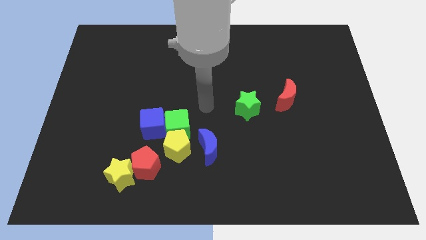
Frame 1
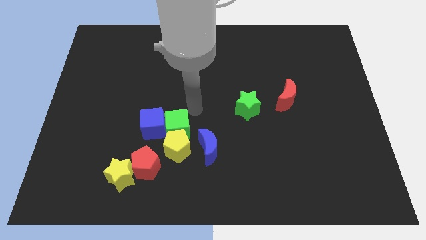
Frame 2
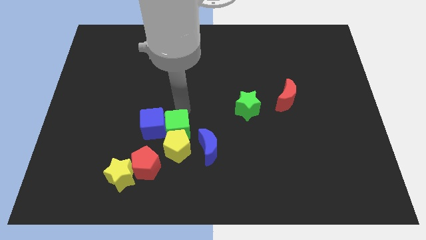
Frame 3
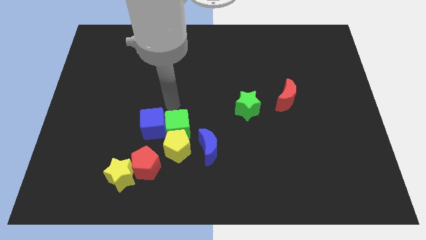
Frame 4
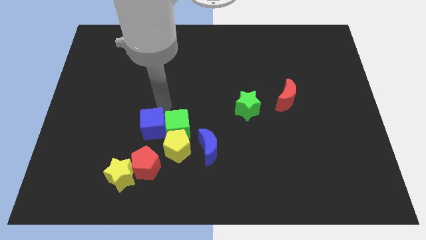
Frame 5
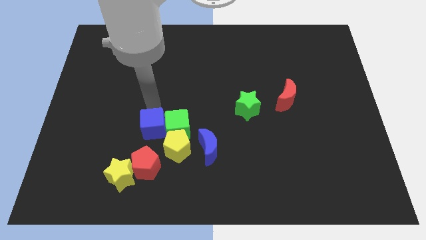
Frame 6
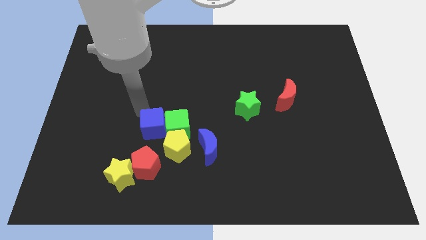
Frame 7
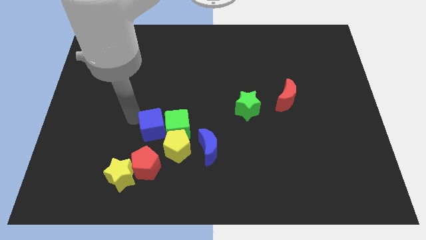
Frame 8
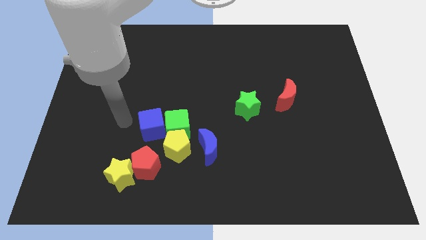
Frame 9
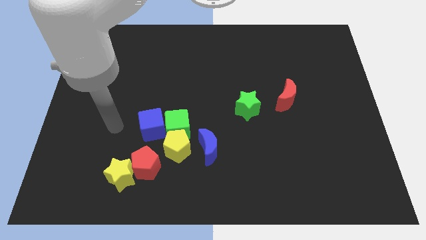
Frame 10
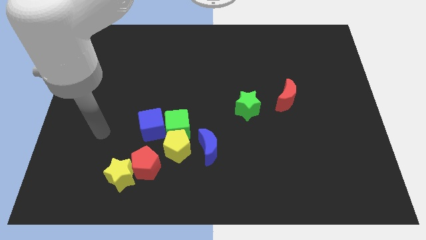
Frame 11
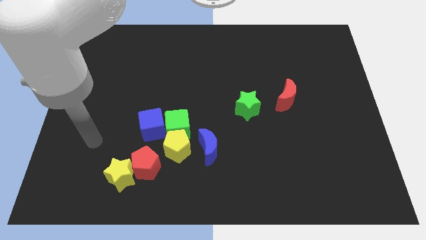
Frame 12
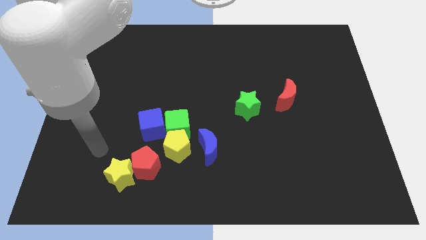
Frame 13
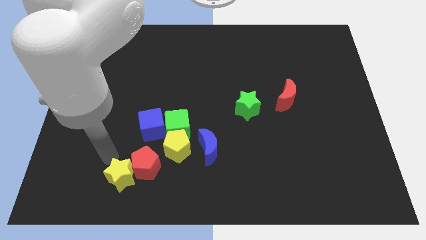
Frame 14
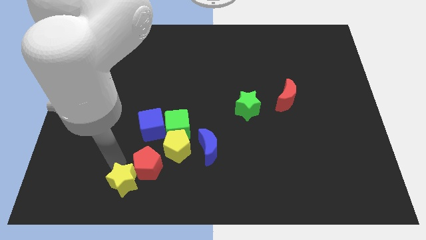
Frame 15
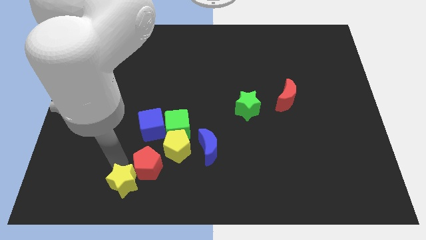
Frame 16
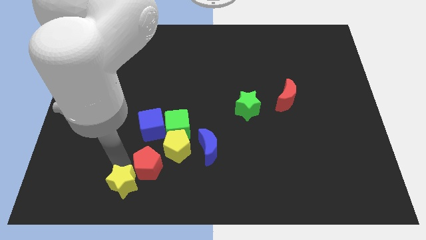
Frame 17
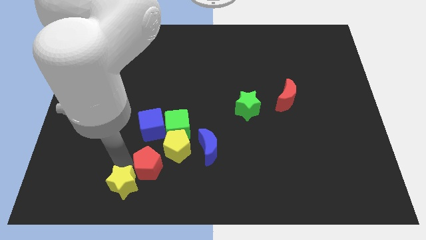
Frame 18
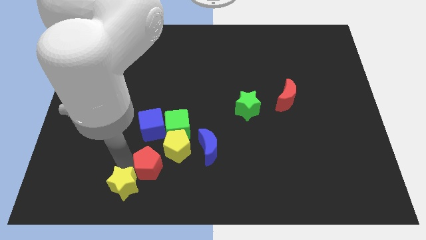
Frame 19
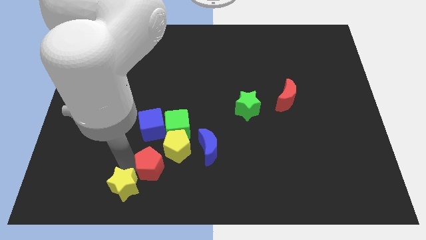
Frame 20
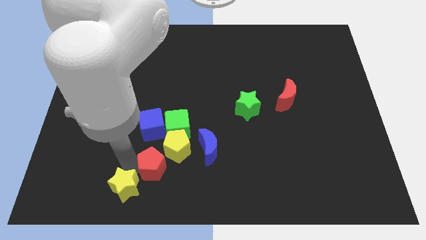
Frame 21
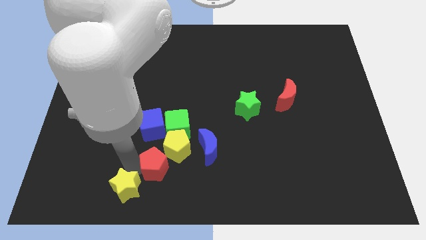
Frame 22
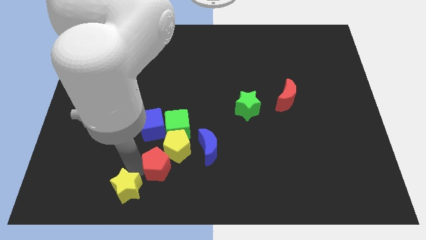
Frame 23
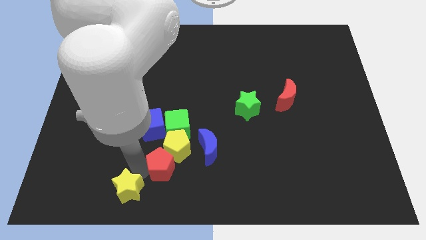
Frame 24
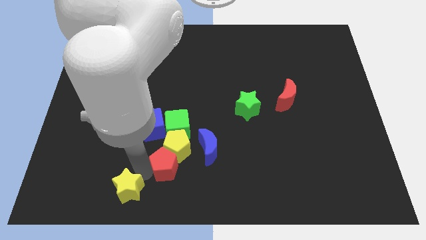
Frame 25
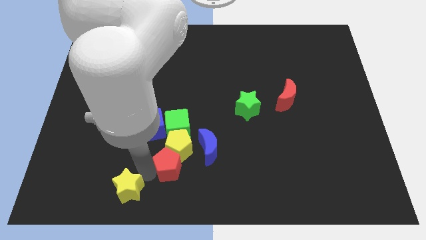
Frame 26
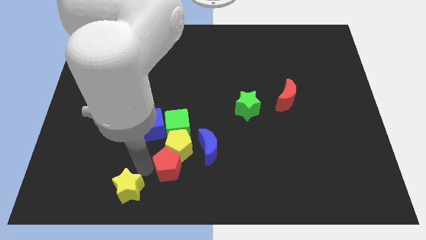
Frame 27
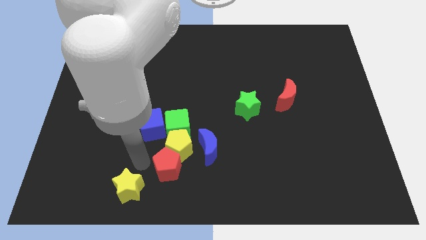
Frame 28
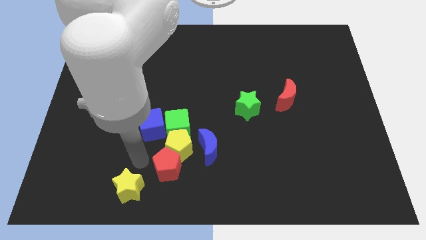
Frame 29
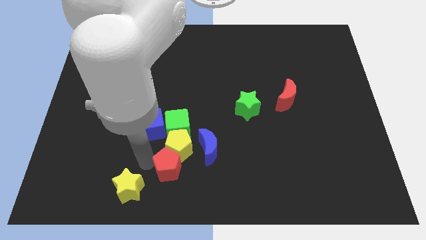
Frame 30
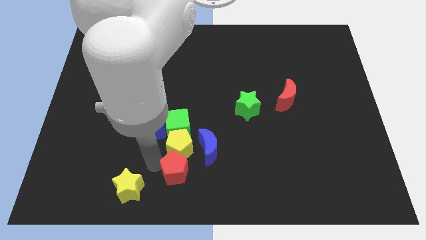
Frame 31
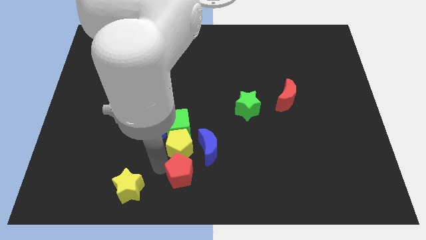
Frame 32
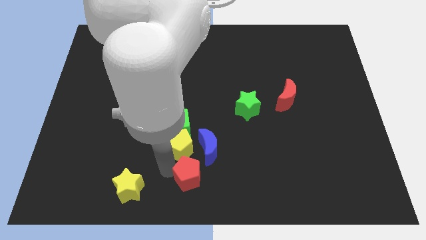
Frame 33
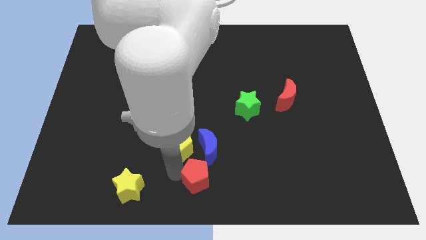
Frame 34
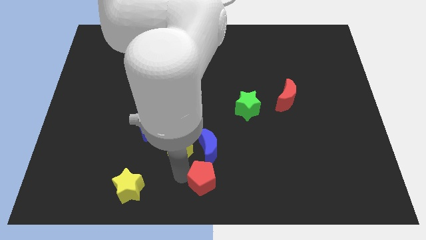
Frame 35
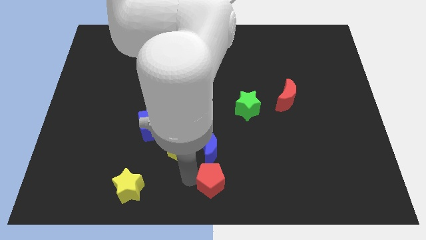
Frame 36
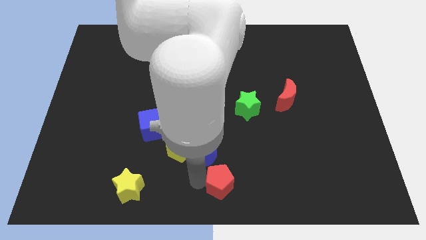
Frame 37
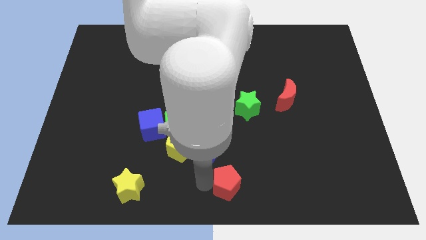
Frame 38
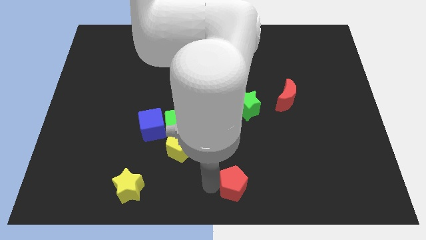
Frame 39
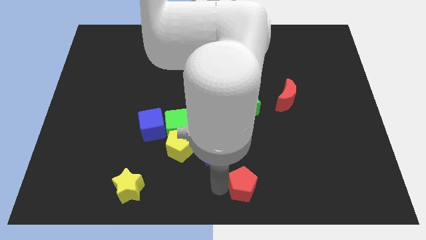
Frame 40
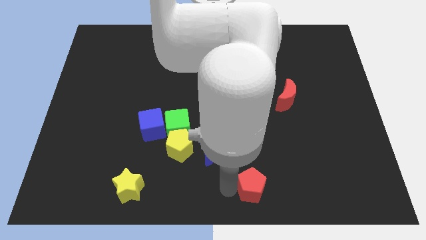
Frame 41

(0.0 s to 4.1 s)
slide the red pentagon to the right

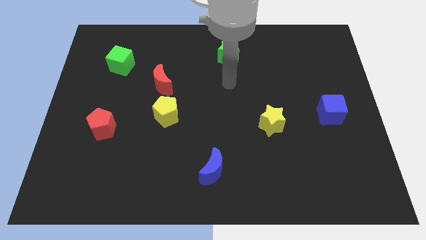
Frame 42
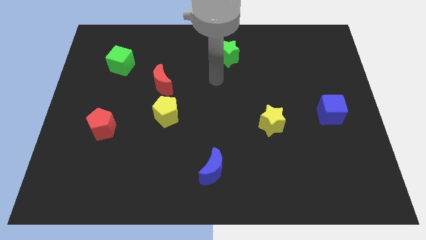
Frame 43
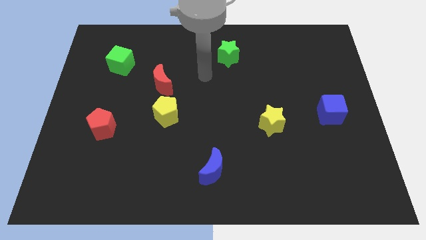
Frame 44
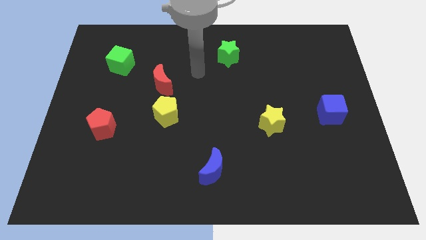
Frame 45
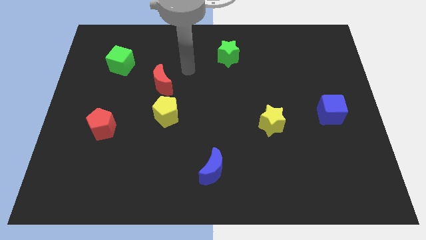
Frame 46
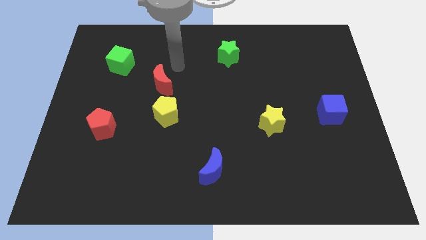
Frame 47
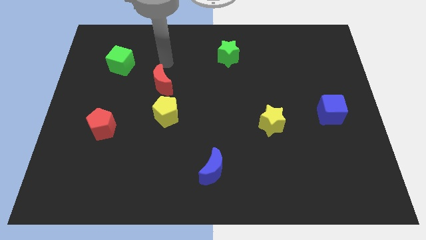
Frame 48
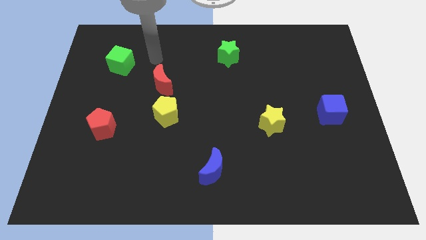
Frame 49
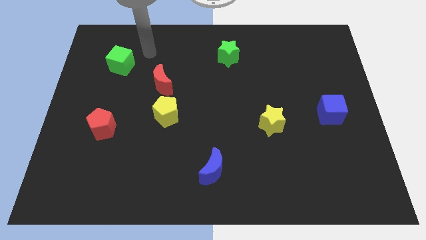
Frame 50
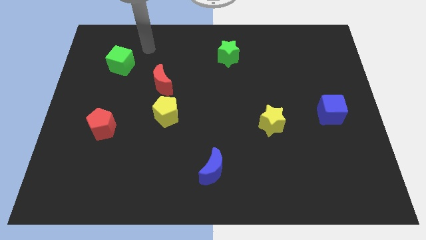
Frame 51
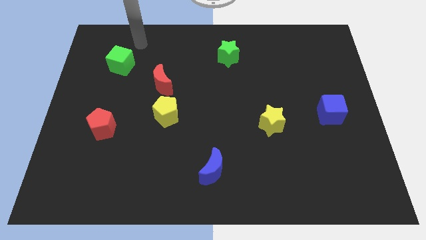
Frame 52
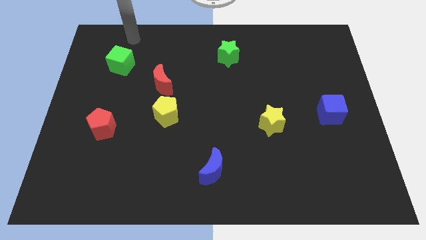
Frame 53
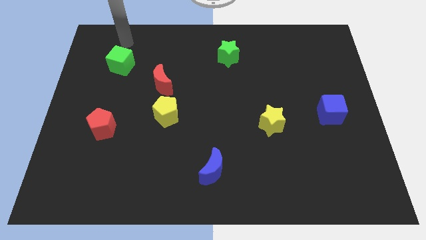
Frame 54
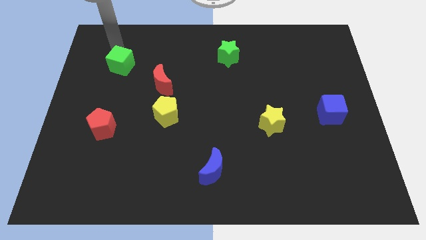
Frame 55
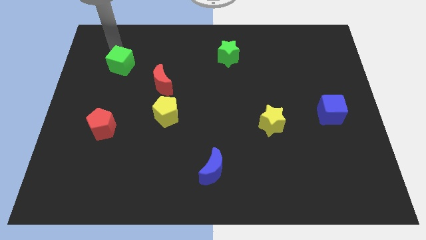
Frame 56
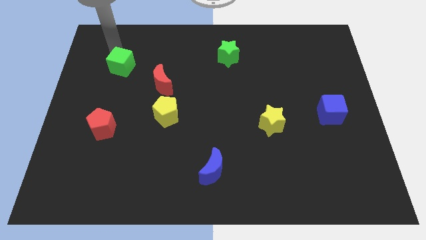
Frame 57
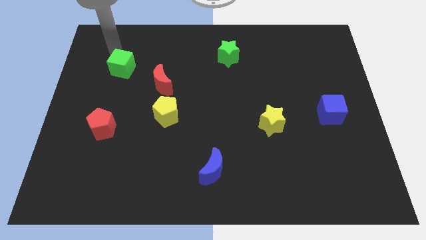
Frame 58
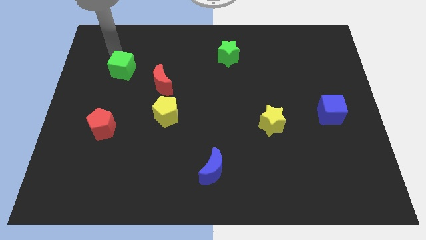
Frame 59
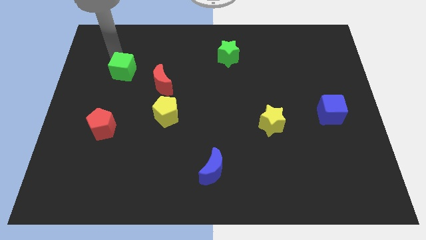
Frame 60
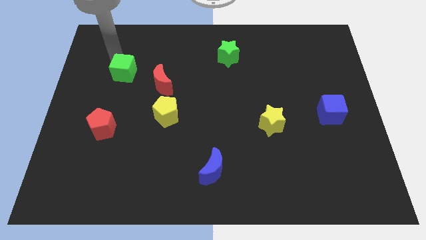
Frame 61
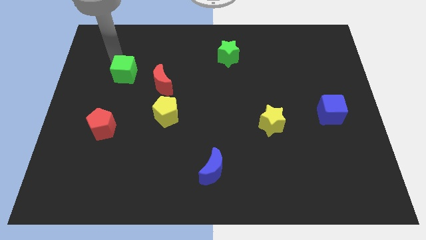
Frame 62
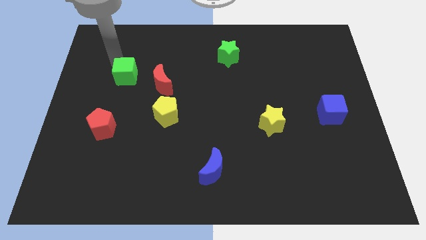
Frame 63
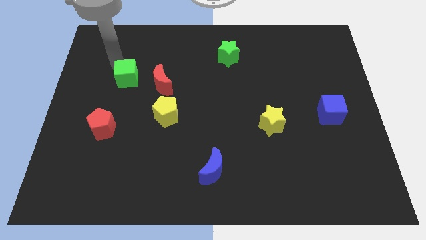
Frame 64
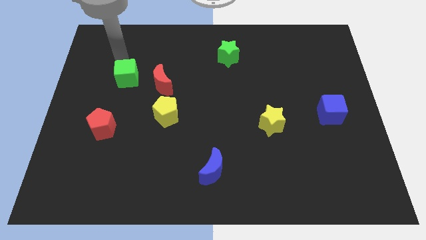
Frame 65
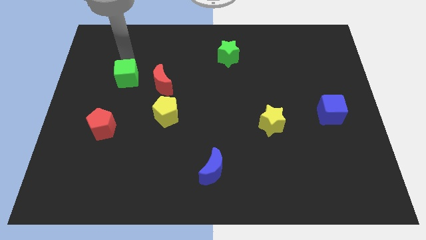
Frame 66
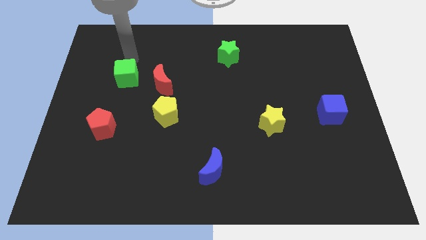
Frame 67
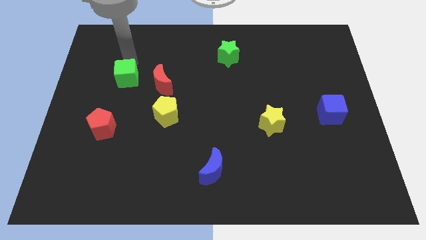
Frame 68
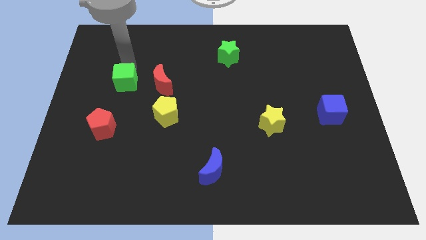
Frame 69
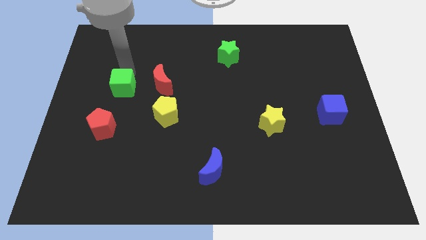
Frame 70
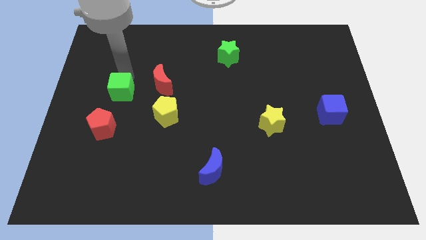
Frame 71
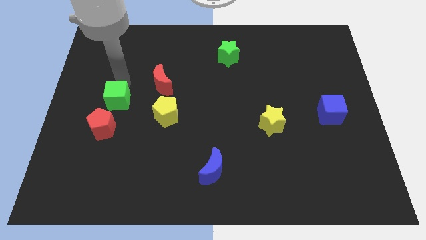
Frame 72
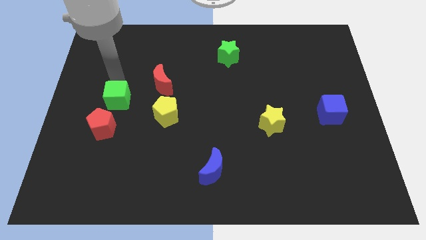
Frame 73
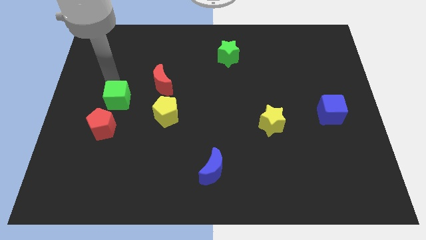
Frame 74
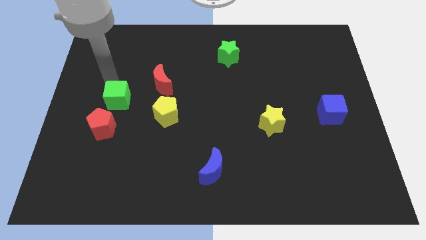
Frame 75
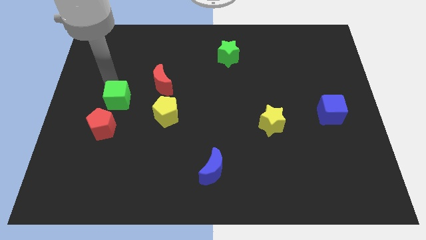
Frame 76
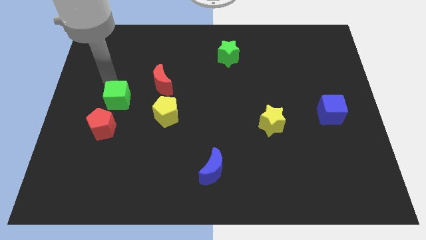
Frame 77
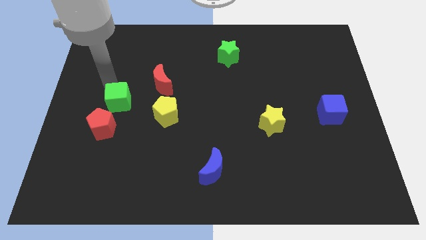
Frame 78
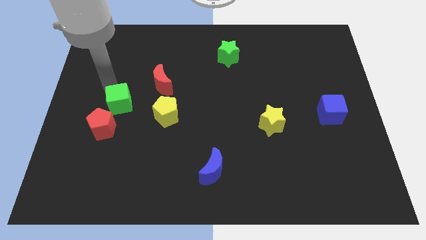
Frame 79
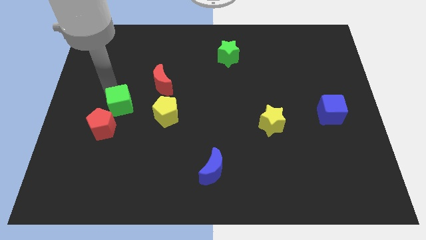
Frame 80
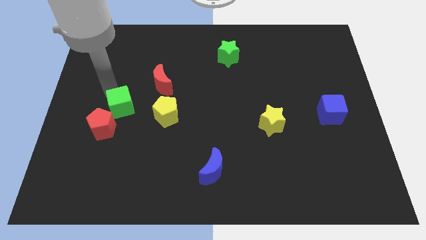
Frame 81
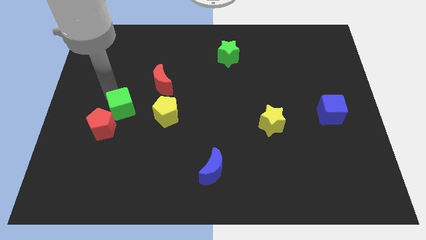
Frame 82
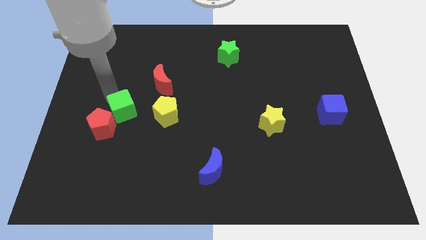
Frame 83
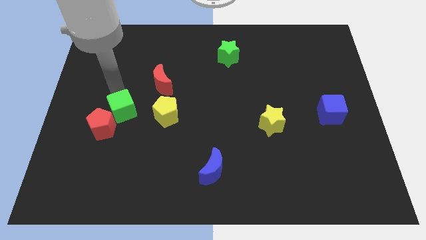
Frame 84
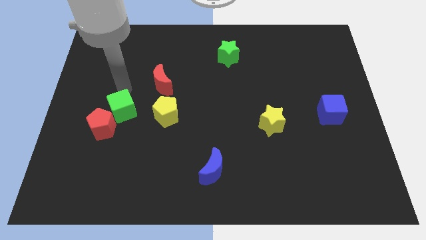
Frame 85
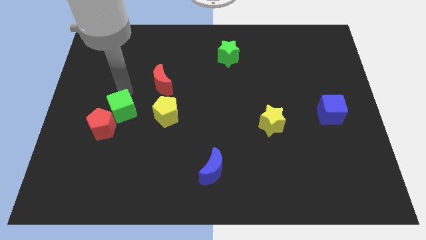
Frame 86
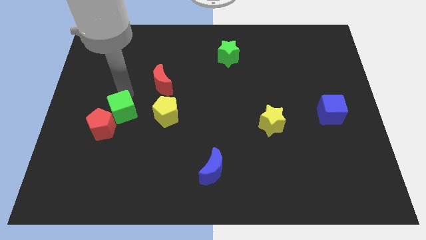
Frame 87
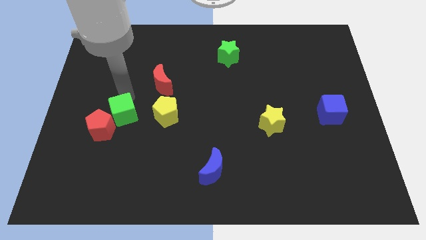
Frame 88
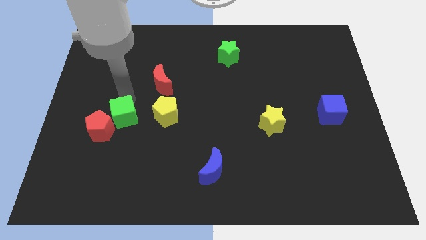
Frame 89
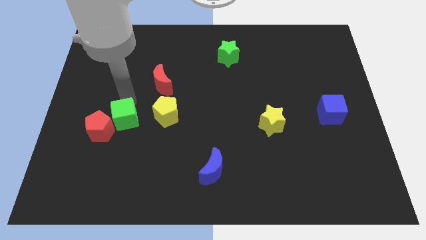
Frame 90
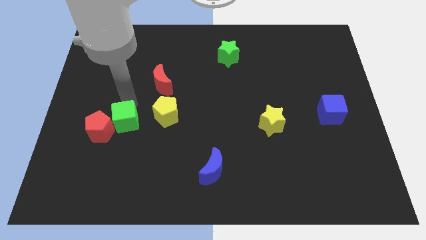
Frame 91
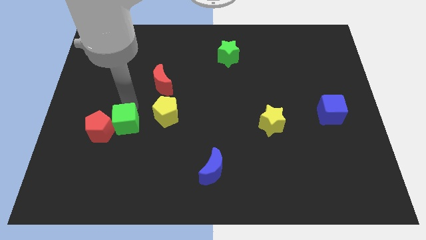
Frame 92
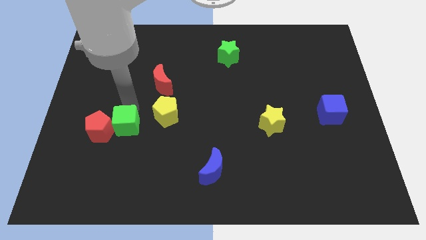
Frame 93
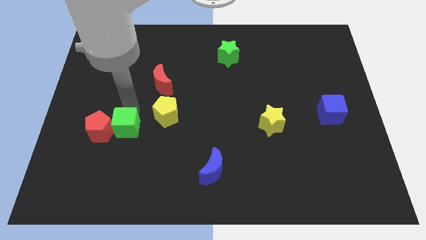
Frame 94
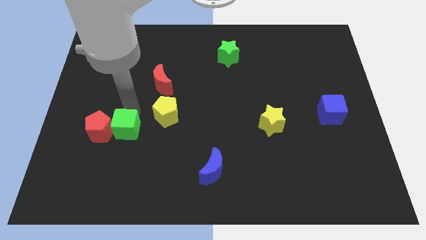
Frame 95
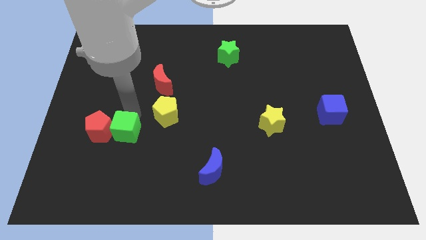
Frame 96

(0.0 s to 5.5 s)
move the green cube downwards
